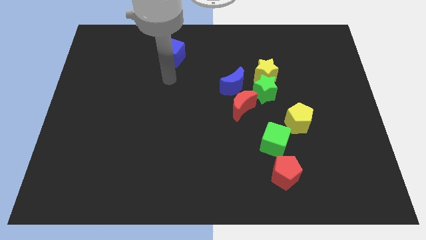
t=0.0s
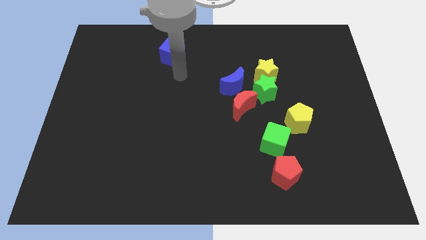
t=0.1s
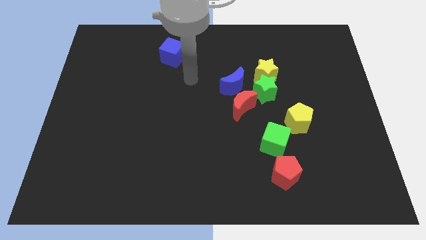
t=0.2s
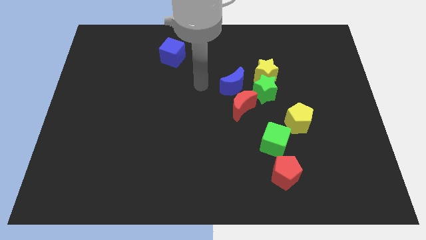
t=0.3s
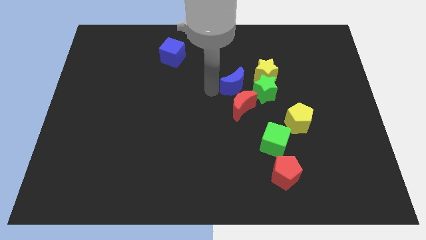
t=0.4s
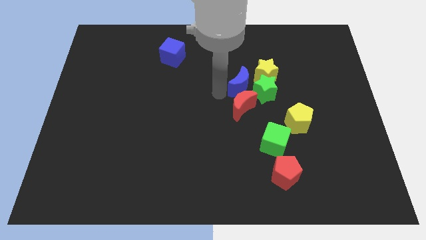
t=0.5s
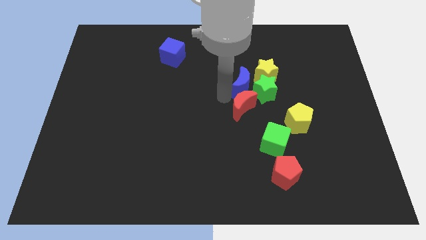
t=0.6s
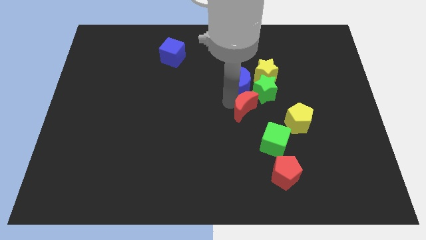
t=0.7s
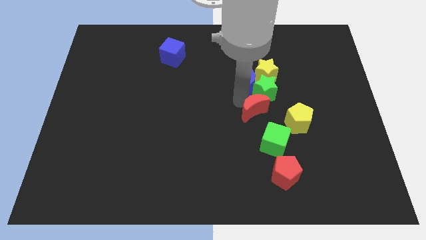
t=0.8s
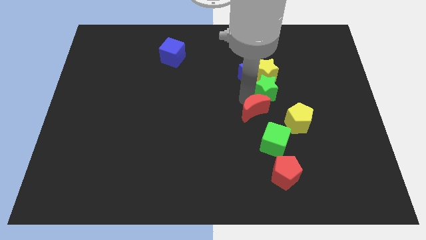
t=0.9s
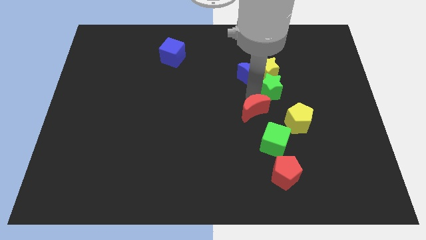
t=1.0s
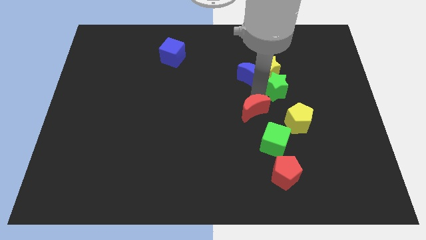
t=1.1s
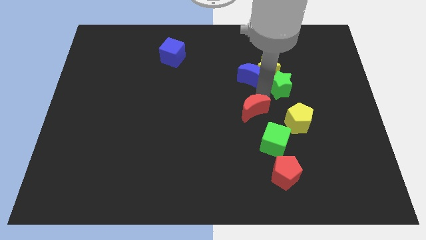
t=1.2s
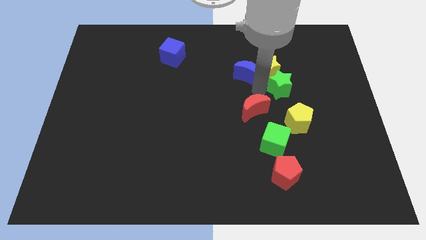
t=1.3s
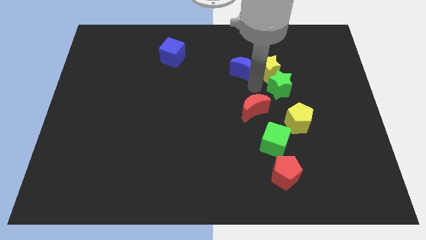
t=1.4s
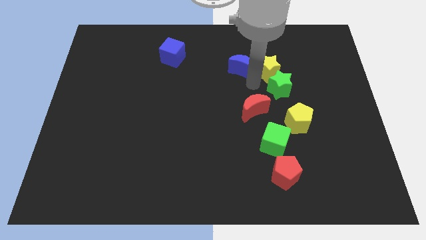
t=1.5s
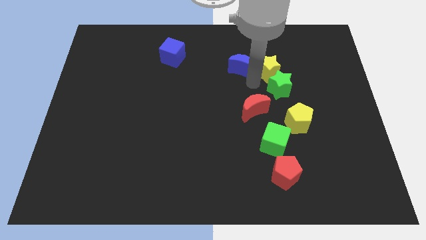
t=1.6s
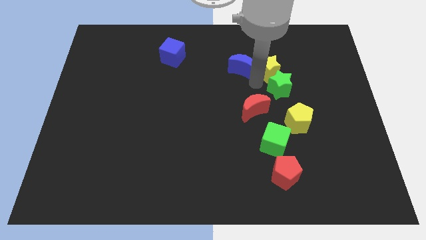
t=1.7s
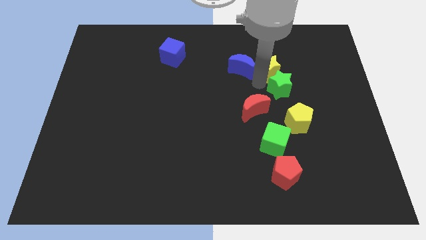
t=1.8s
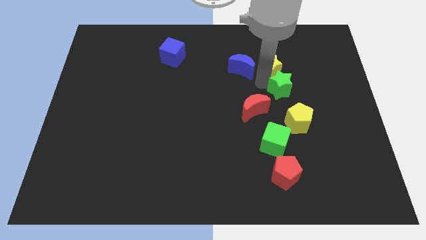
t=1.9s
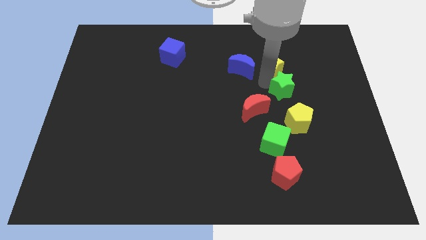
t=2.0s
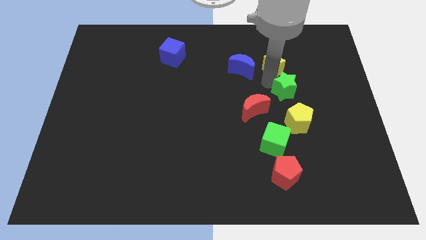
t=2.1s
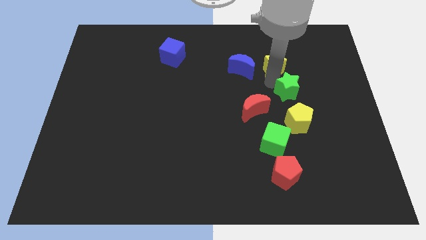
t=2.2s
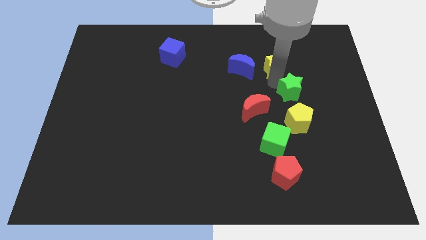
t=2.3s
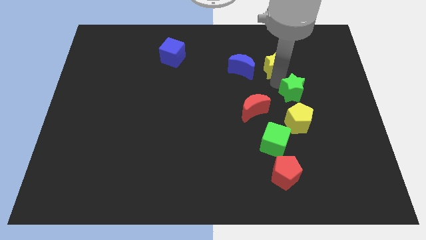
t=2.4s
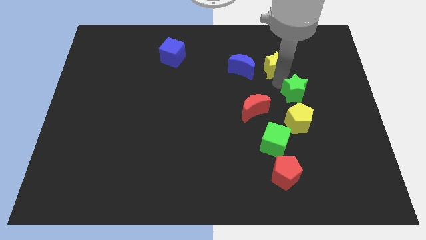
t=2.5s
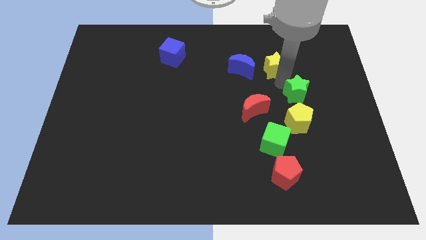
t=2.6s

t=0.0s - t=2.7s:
pull the green star apart from the yellow star, red moon, and blue moon

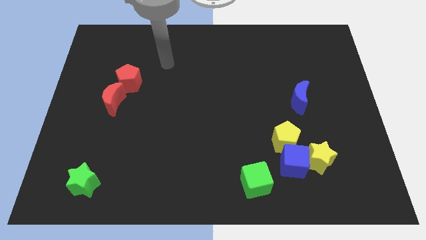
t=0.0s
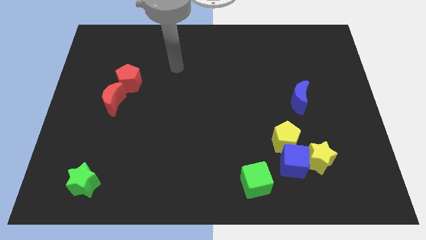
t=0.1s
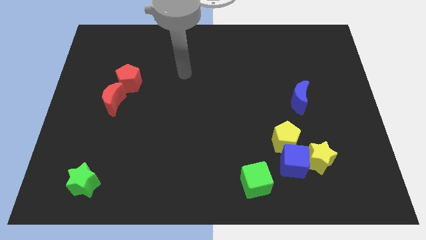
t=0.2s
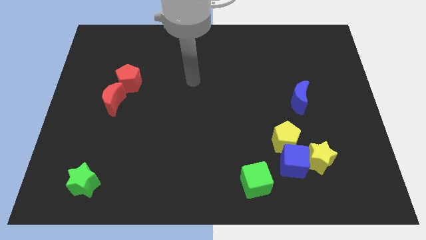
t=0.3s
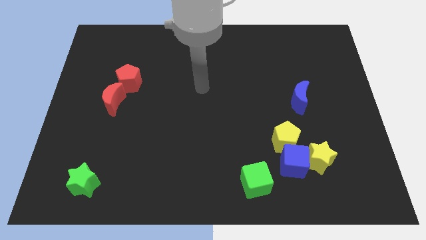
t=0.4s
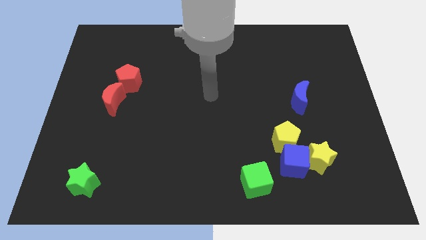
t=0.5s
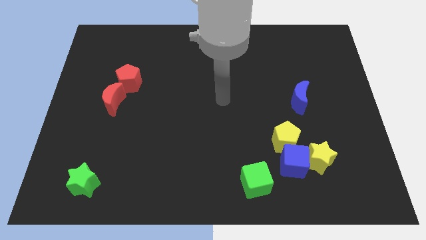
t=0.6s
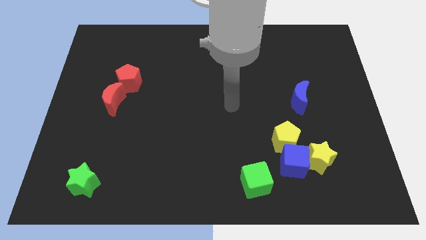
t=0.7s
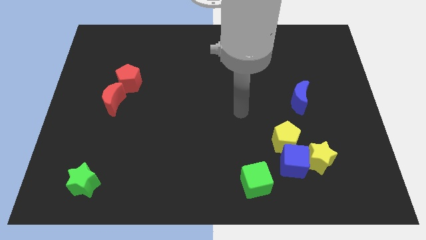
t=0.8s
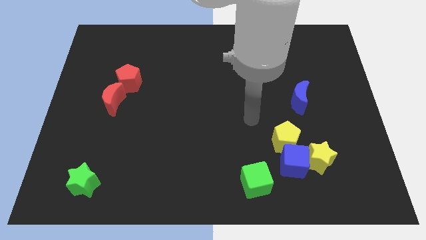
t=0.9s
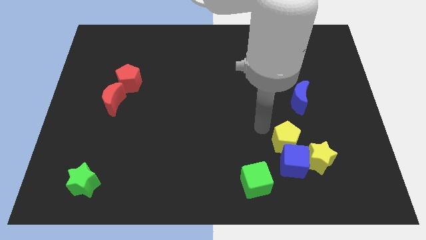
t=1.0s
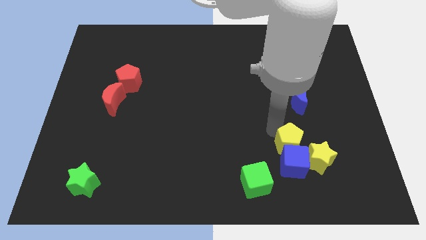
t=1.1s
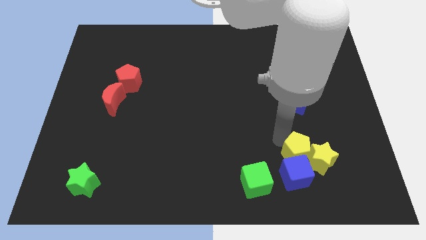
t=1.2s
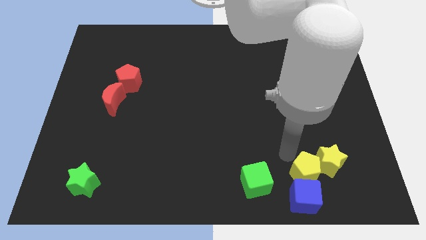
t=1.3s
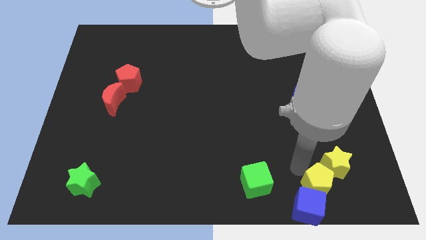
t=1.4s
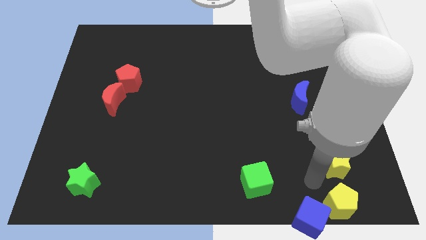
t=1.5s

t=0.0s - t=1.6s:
pull the yellow star apart from the blue cube and yellow pentagon

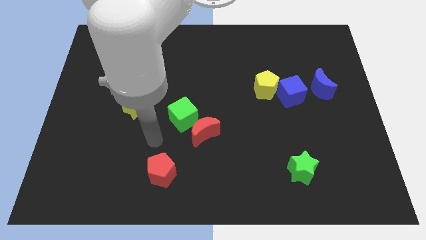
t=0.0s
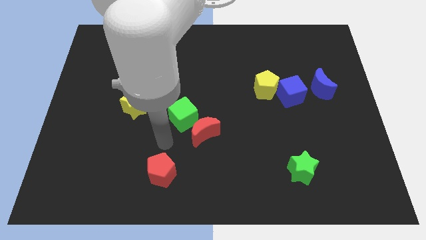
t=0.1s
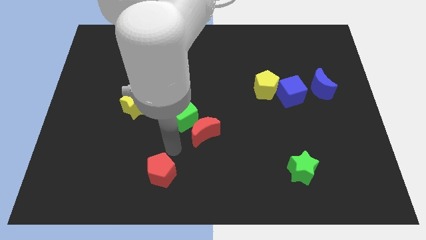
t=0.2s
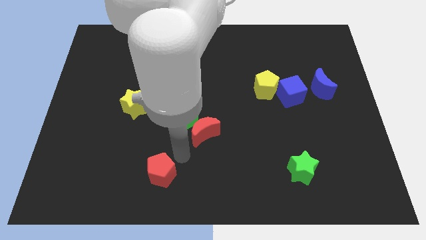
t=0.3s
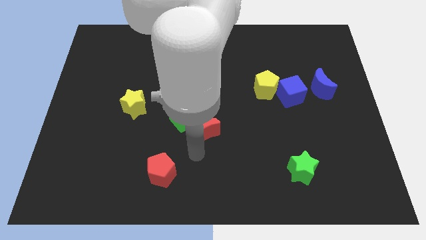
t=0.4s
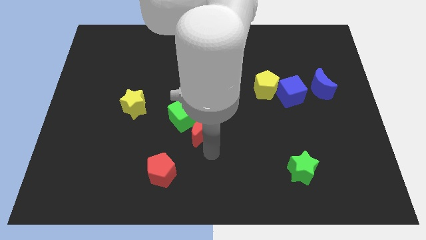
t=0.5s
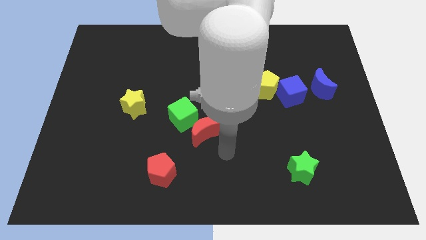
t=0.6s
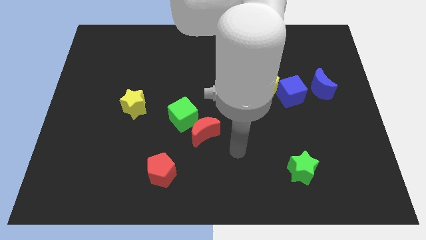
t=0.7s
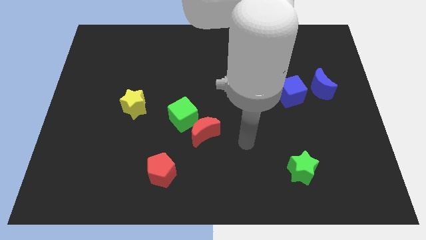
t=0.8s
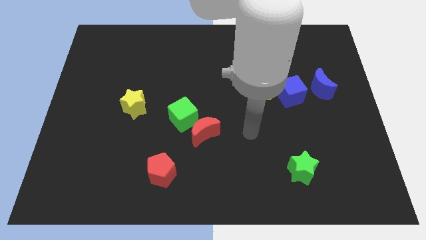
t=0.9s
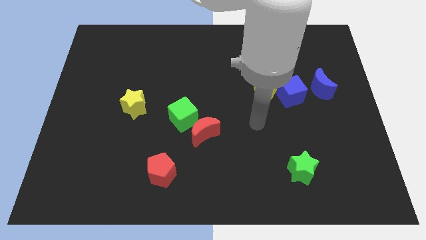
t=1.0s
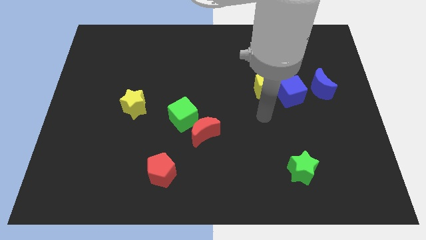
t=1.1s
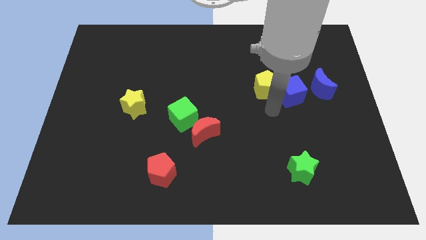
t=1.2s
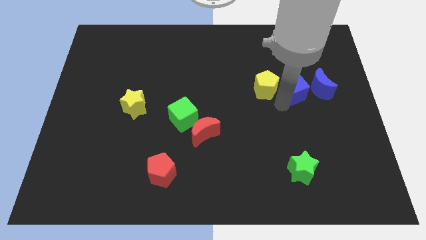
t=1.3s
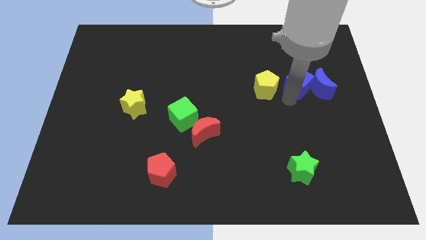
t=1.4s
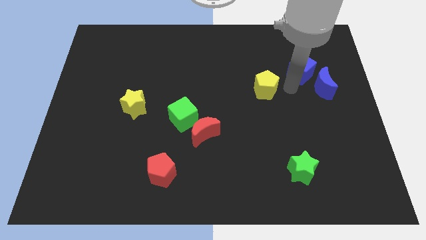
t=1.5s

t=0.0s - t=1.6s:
pull the yellow pentagon apart from the blue cube

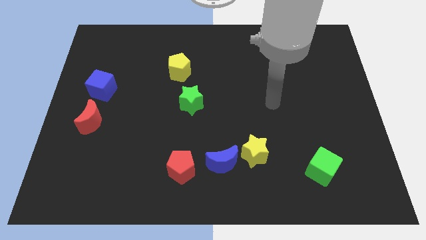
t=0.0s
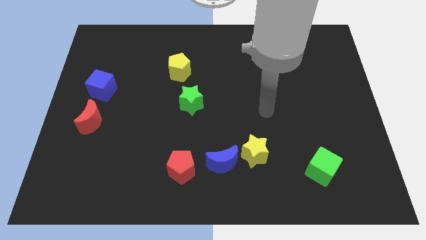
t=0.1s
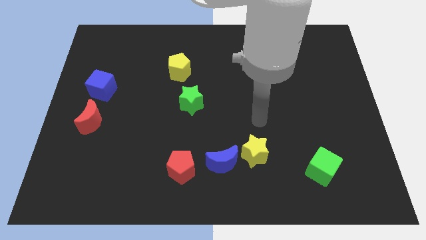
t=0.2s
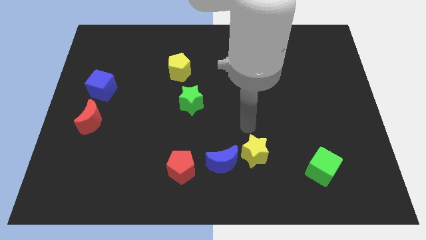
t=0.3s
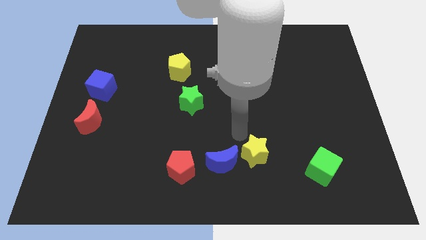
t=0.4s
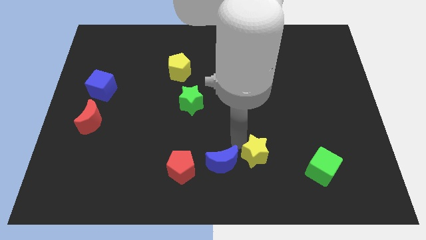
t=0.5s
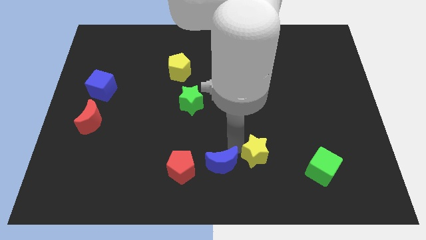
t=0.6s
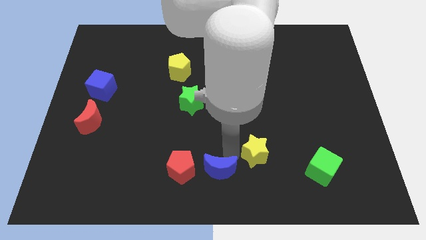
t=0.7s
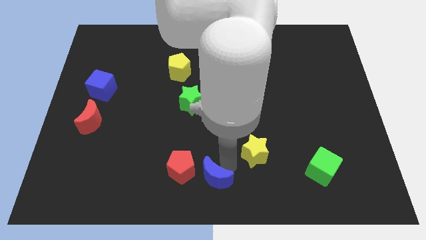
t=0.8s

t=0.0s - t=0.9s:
pull the yellow star apart from the blue moon

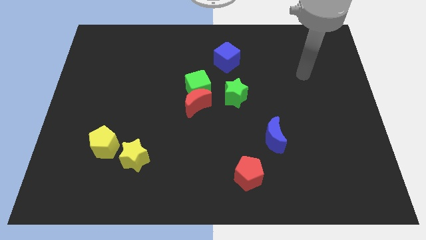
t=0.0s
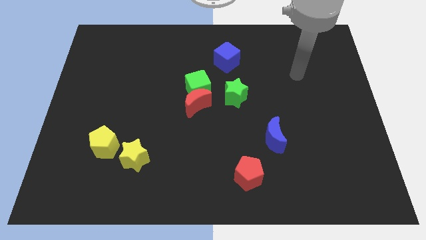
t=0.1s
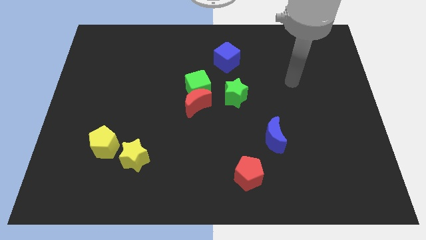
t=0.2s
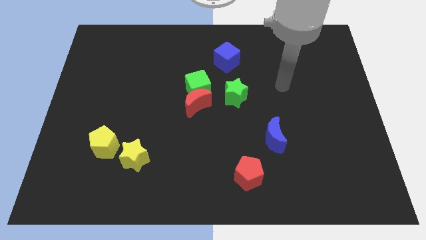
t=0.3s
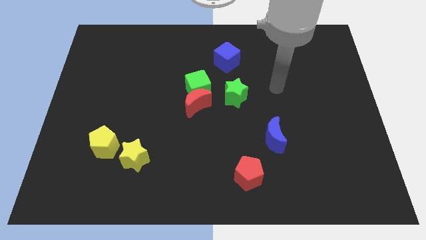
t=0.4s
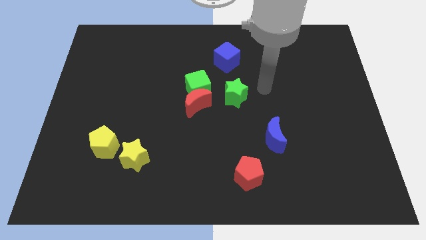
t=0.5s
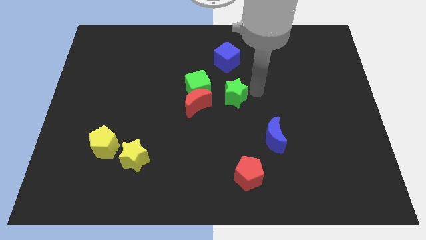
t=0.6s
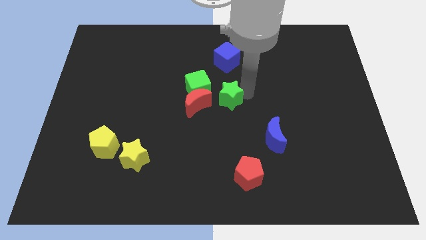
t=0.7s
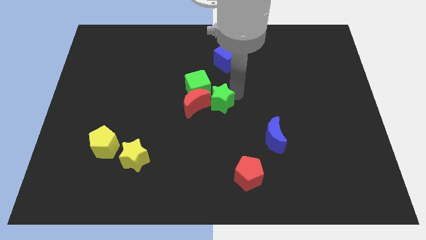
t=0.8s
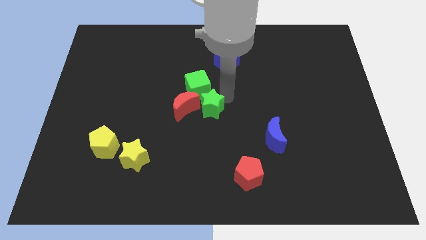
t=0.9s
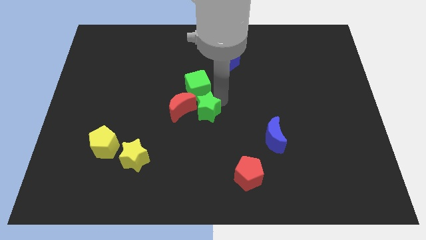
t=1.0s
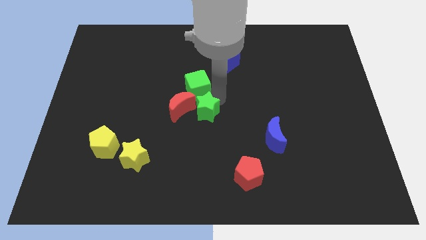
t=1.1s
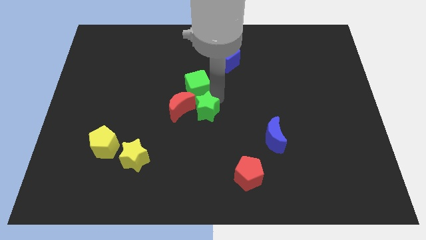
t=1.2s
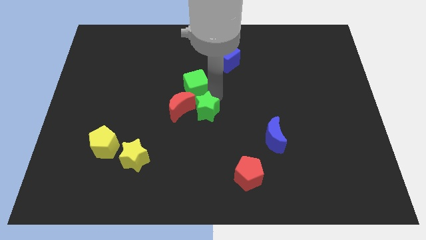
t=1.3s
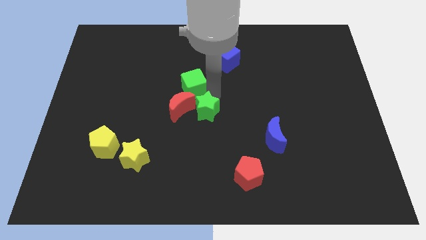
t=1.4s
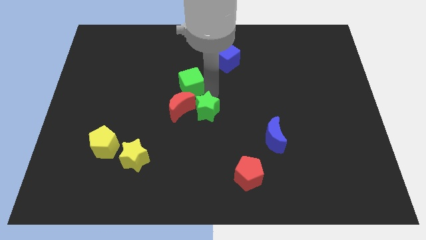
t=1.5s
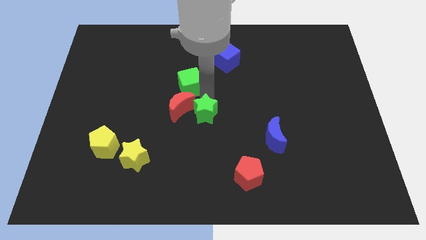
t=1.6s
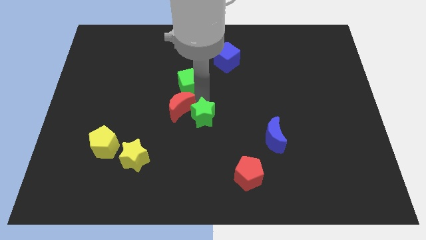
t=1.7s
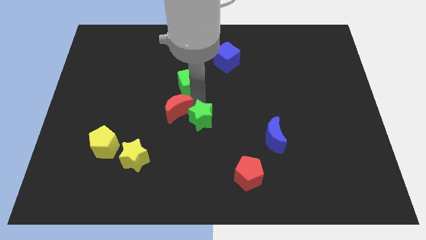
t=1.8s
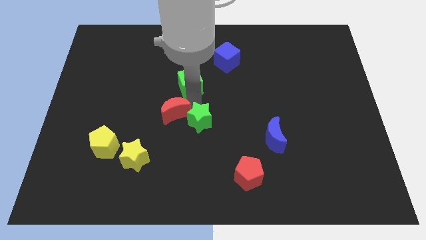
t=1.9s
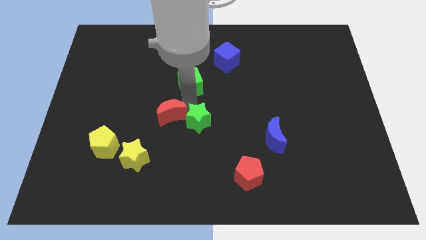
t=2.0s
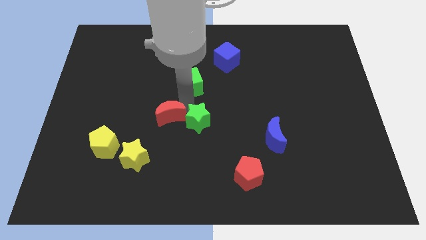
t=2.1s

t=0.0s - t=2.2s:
pull the green cube apart from the red moon and green star

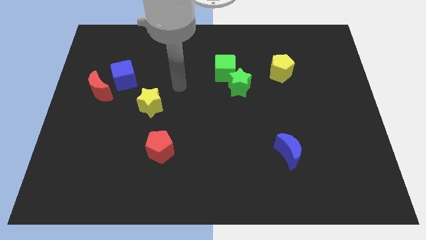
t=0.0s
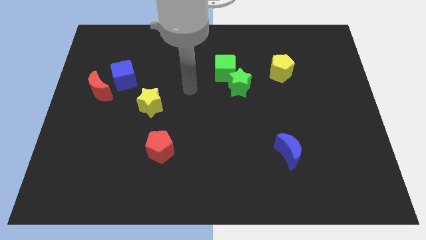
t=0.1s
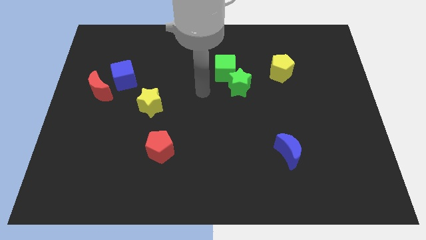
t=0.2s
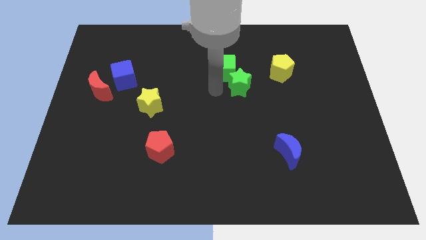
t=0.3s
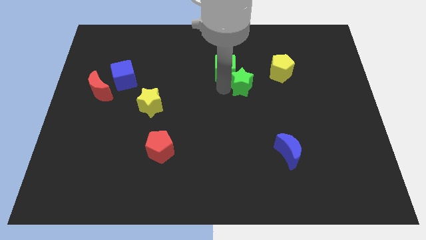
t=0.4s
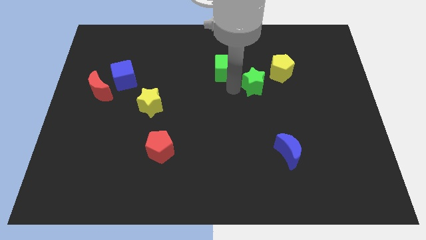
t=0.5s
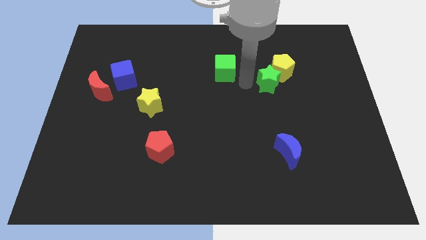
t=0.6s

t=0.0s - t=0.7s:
separate the green cube from the green star
